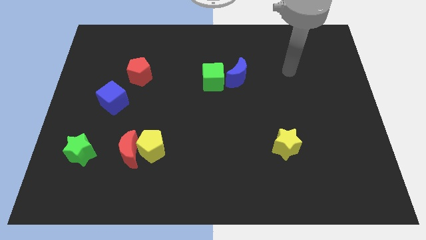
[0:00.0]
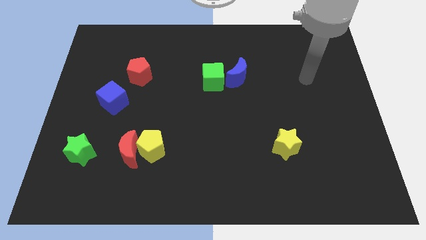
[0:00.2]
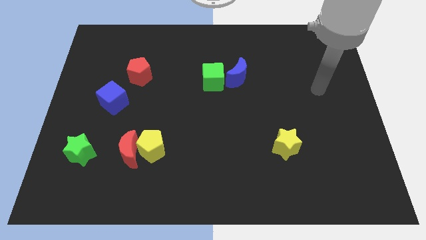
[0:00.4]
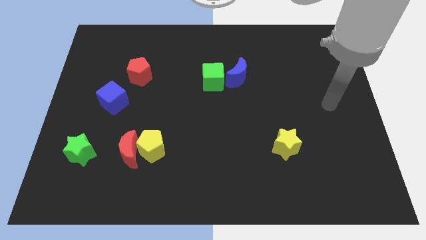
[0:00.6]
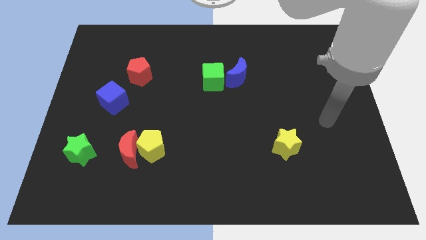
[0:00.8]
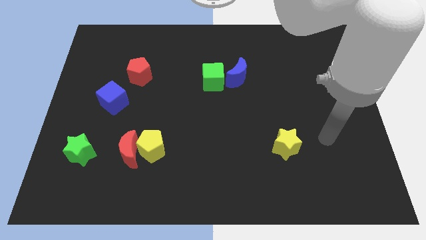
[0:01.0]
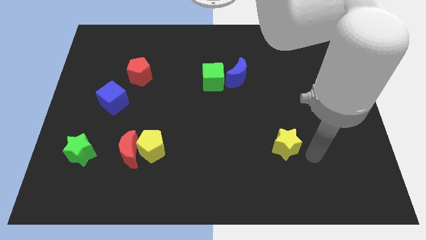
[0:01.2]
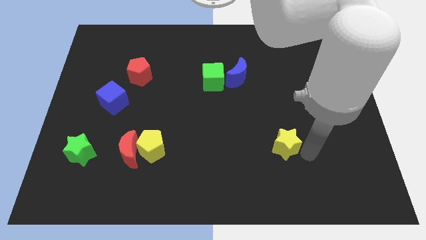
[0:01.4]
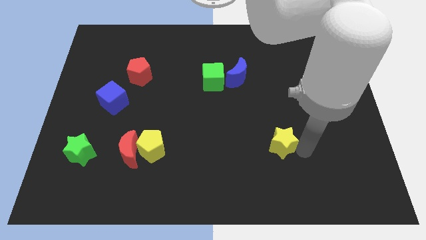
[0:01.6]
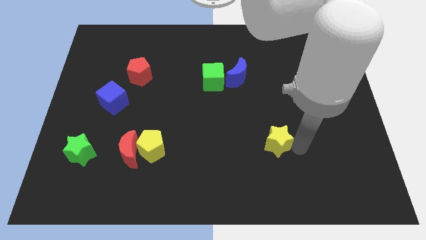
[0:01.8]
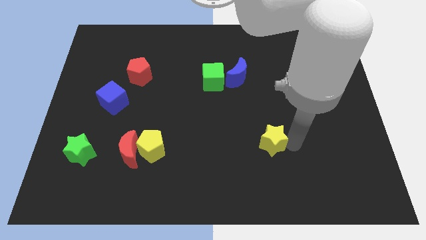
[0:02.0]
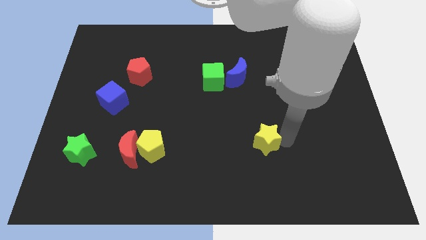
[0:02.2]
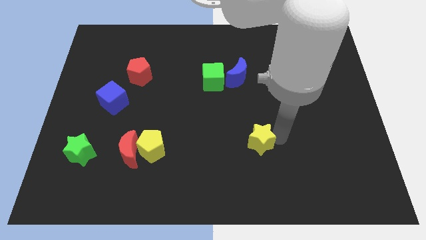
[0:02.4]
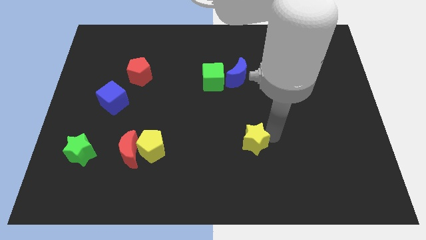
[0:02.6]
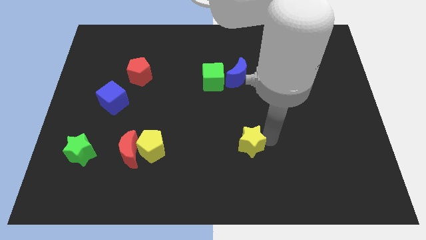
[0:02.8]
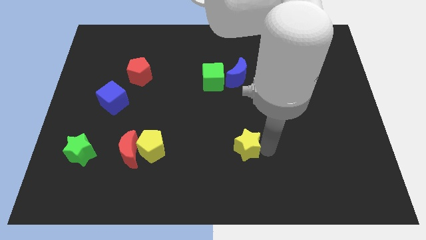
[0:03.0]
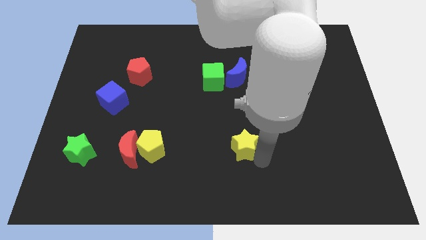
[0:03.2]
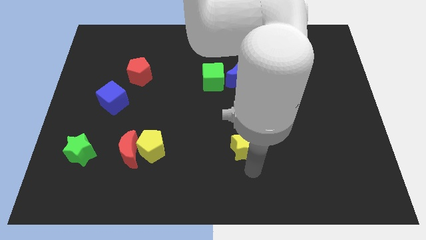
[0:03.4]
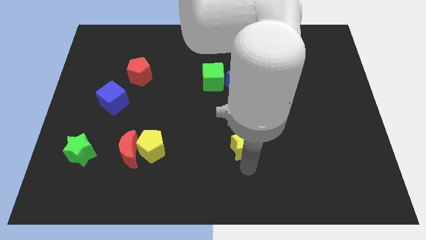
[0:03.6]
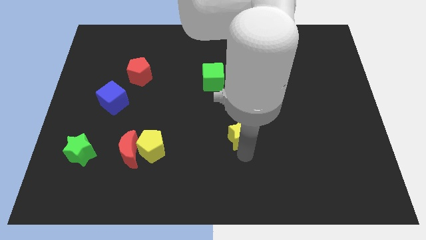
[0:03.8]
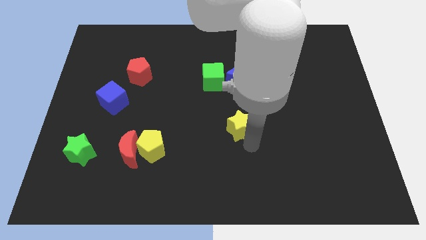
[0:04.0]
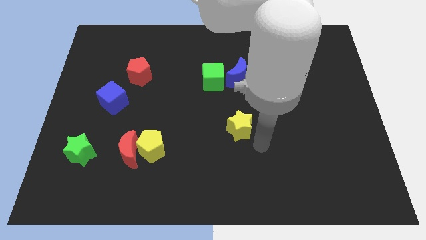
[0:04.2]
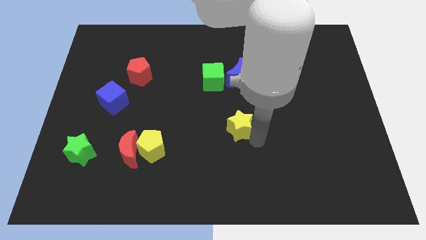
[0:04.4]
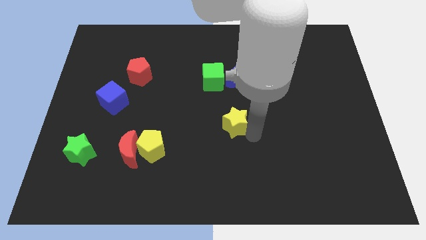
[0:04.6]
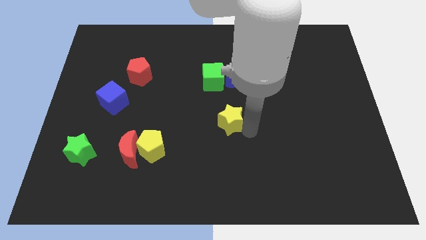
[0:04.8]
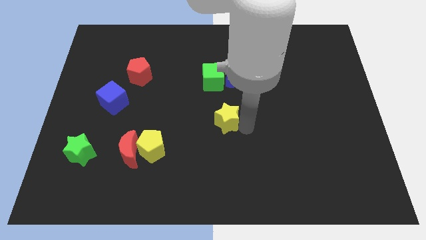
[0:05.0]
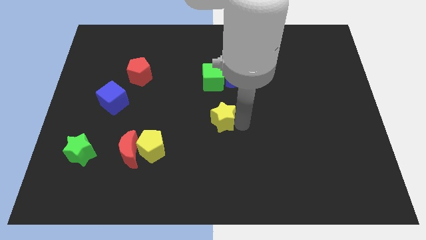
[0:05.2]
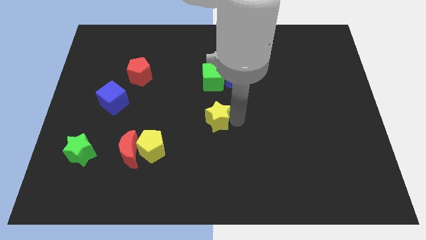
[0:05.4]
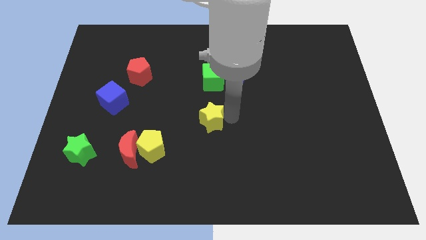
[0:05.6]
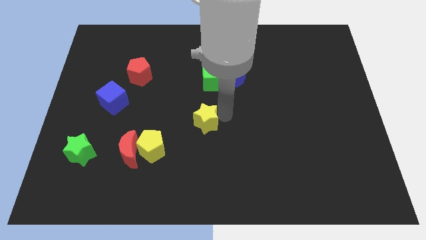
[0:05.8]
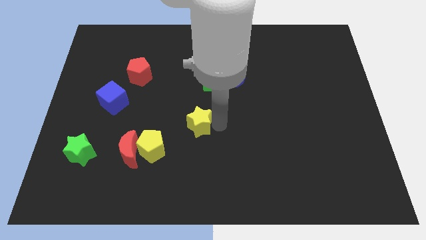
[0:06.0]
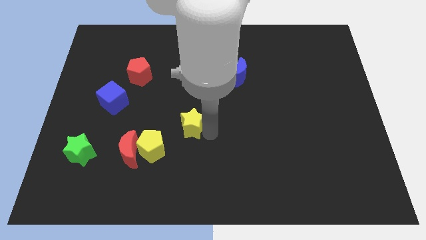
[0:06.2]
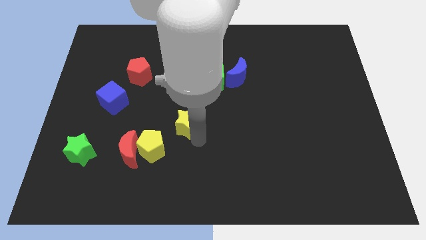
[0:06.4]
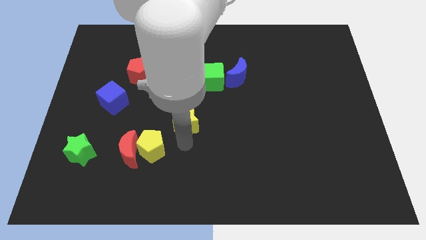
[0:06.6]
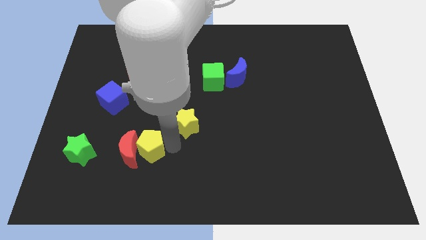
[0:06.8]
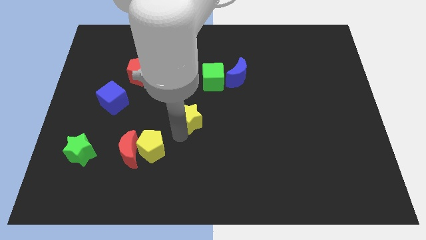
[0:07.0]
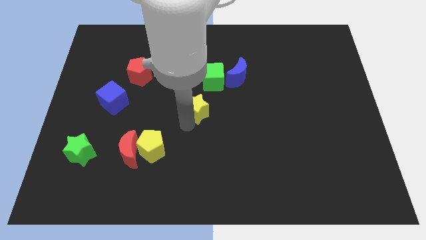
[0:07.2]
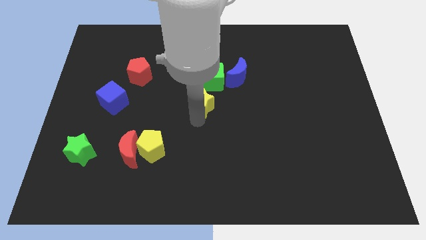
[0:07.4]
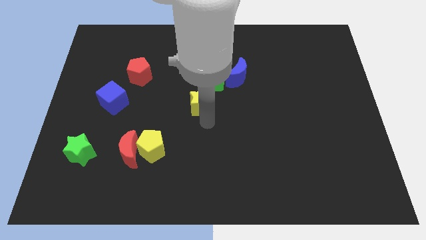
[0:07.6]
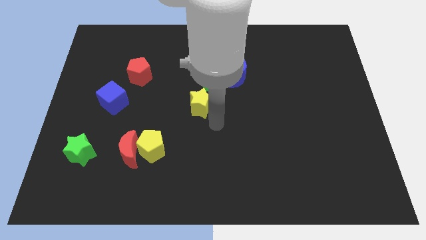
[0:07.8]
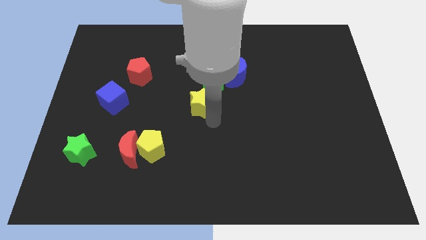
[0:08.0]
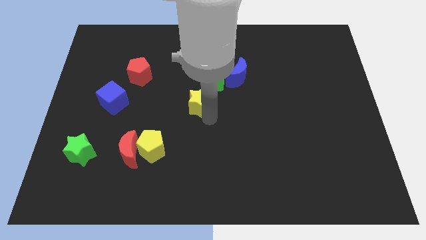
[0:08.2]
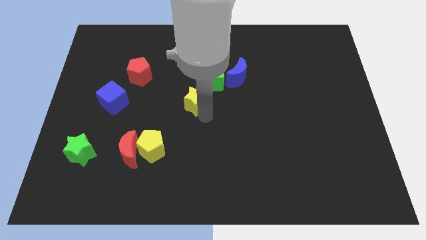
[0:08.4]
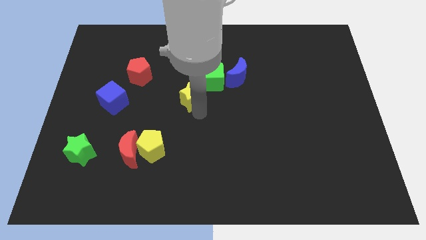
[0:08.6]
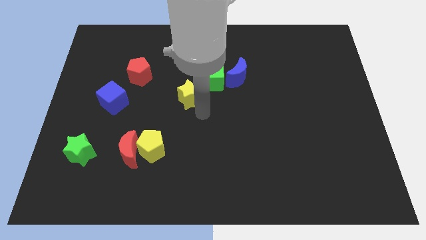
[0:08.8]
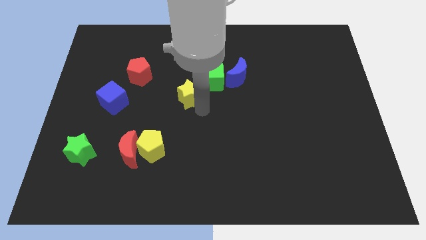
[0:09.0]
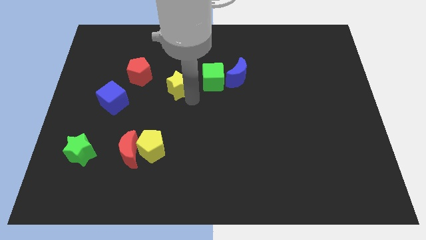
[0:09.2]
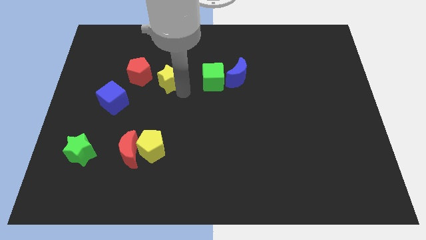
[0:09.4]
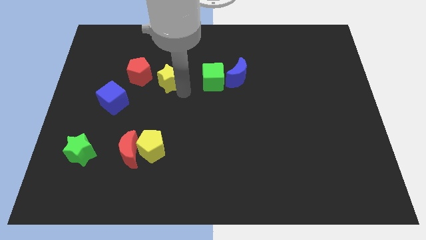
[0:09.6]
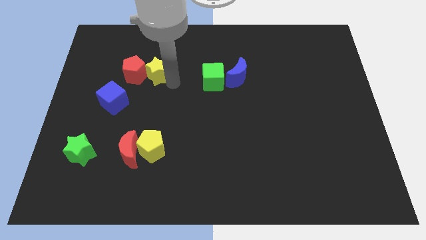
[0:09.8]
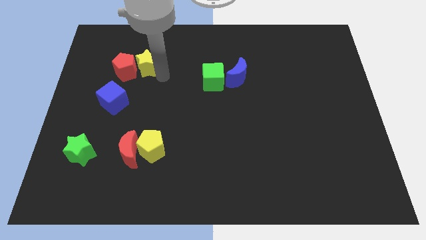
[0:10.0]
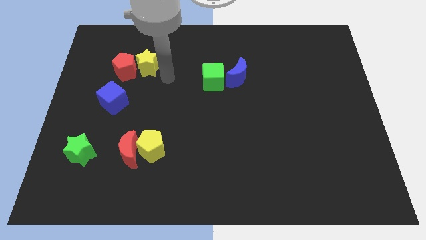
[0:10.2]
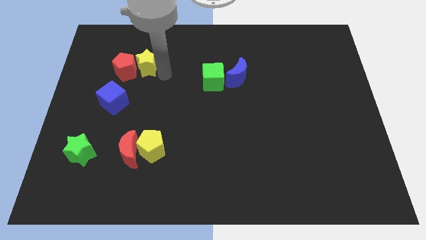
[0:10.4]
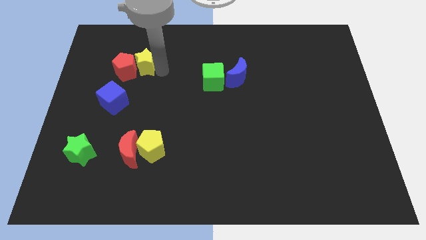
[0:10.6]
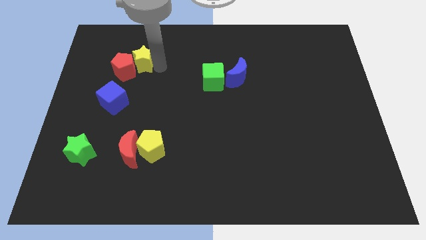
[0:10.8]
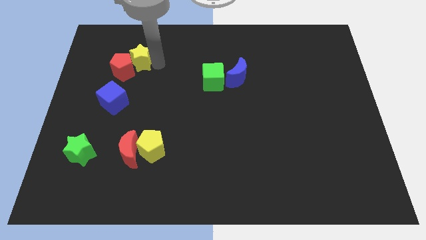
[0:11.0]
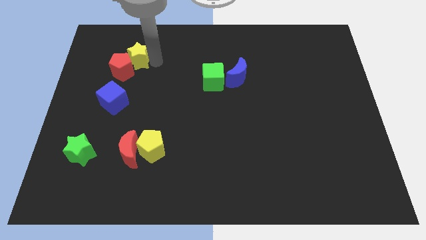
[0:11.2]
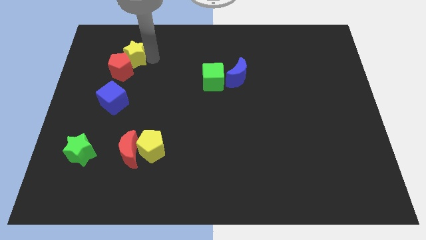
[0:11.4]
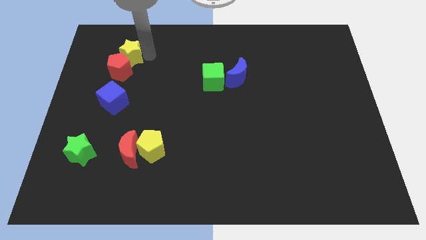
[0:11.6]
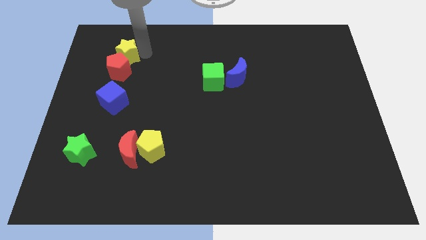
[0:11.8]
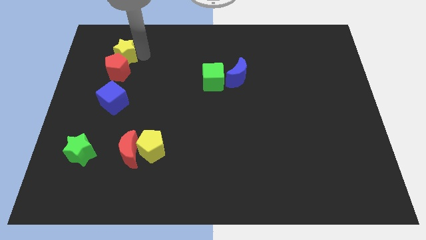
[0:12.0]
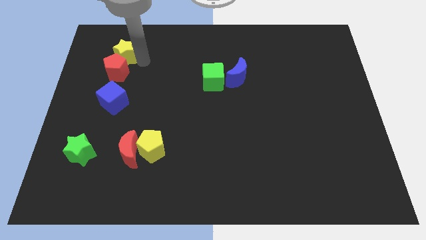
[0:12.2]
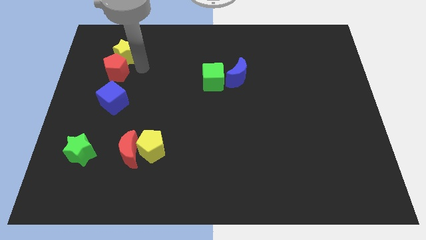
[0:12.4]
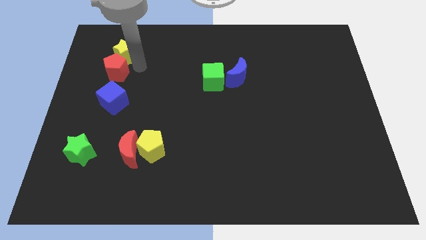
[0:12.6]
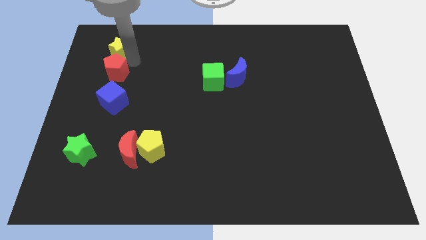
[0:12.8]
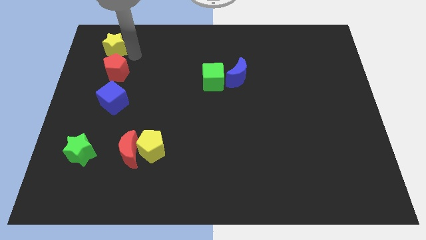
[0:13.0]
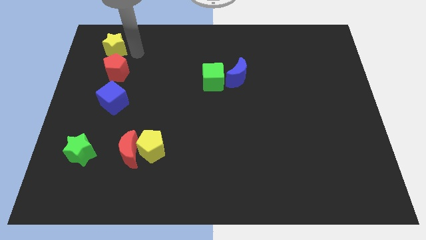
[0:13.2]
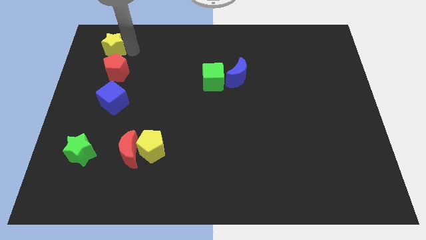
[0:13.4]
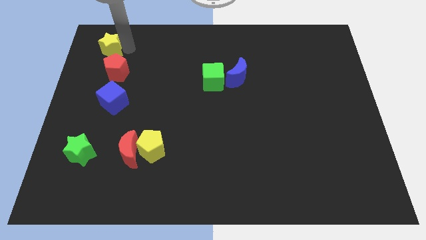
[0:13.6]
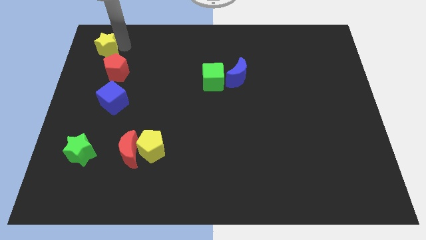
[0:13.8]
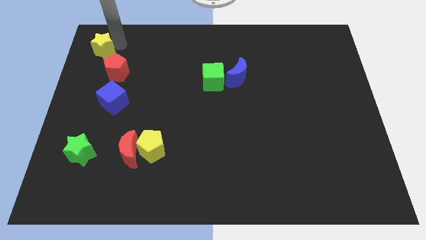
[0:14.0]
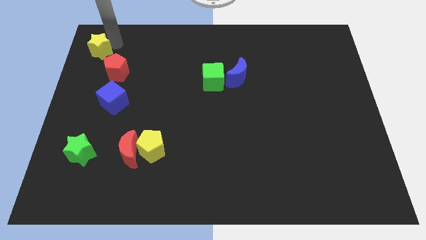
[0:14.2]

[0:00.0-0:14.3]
put the yellow star to the top left
